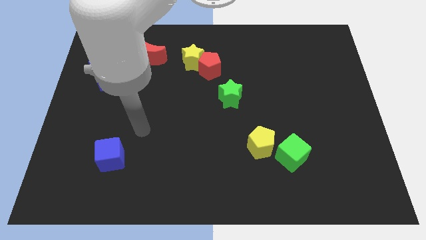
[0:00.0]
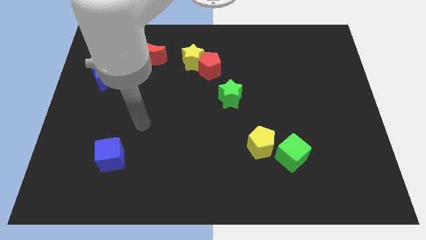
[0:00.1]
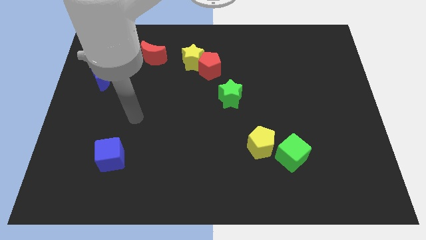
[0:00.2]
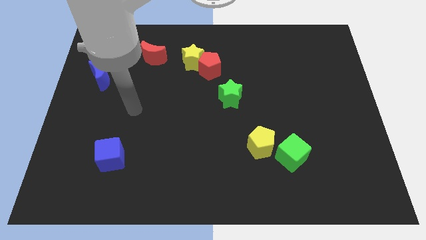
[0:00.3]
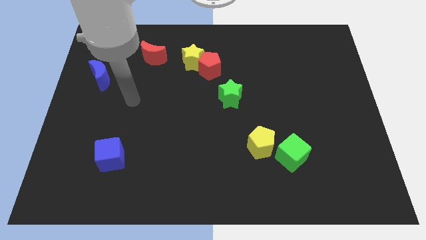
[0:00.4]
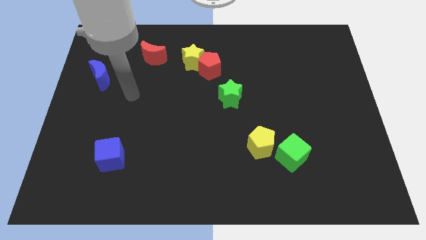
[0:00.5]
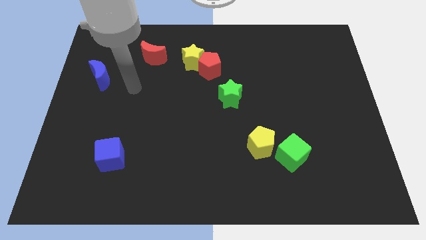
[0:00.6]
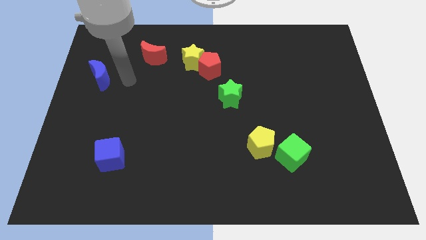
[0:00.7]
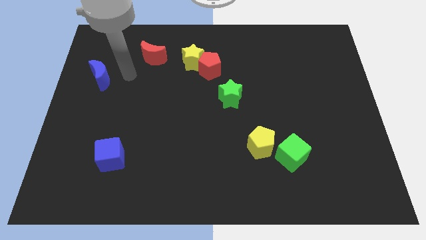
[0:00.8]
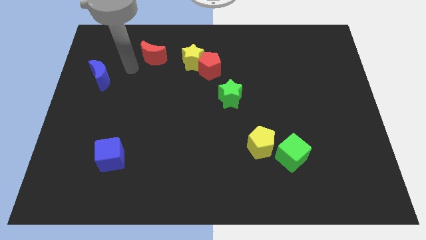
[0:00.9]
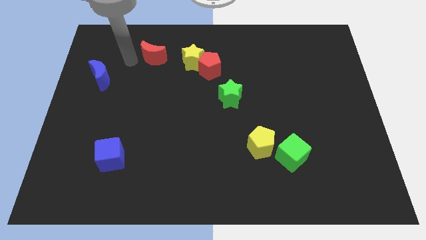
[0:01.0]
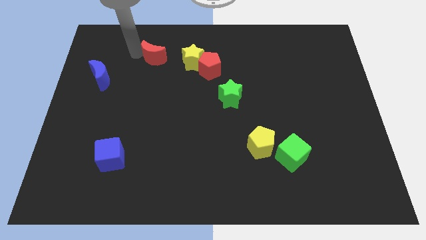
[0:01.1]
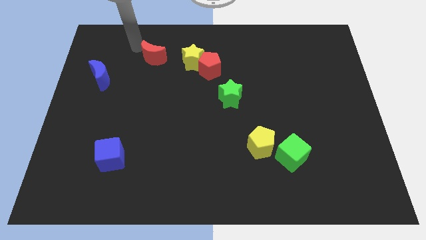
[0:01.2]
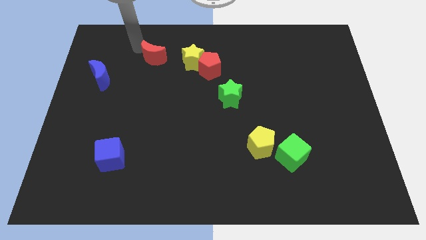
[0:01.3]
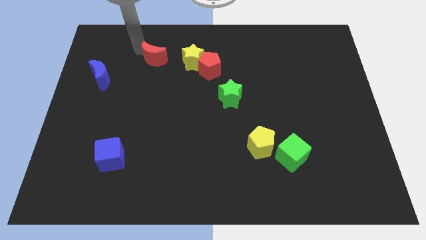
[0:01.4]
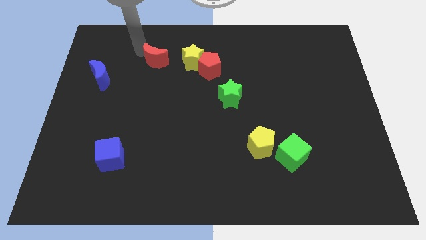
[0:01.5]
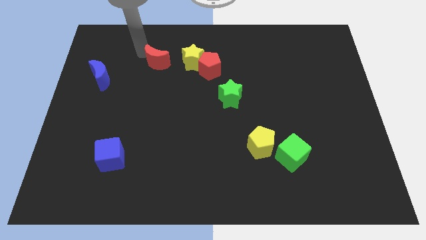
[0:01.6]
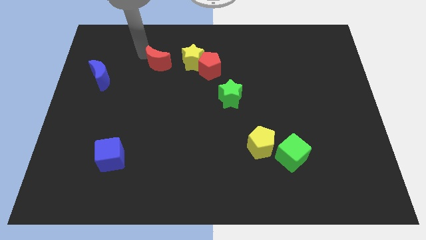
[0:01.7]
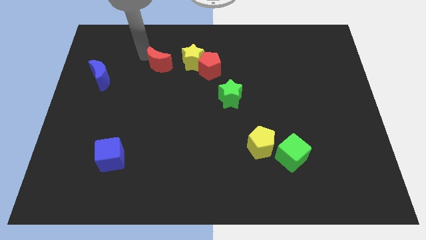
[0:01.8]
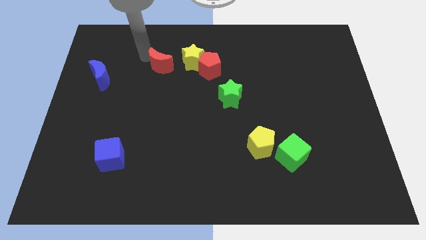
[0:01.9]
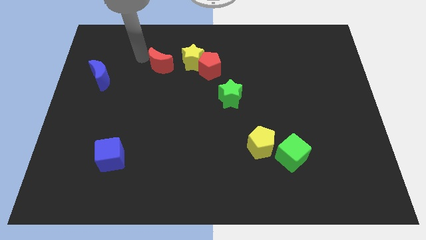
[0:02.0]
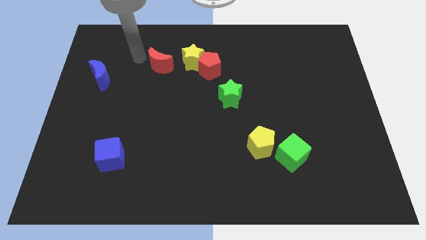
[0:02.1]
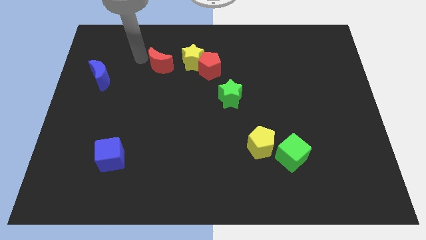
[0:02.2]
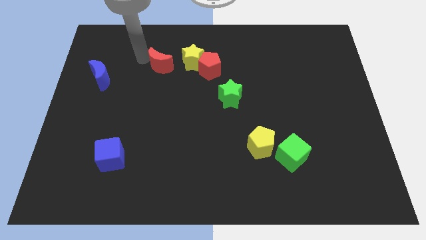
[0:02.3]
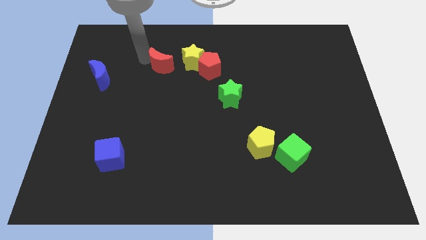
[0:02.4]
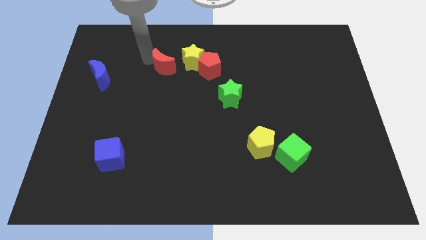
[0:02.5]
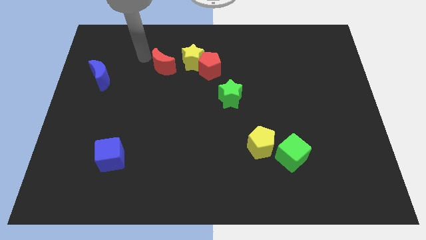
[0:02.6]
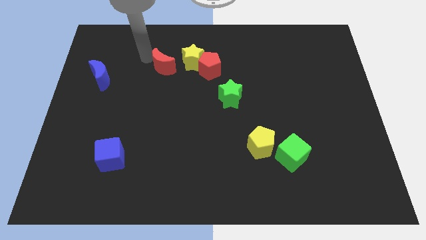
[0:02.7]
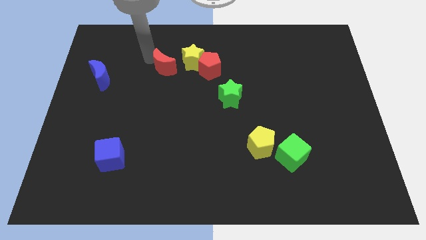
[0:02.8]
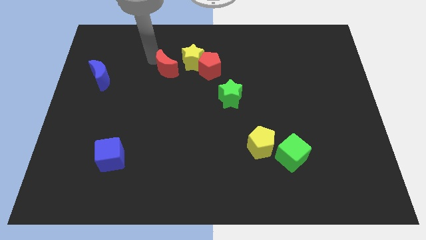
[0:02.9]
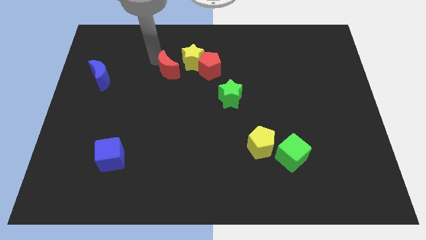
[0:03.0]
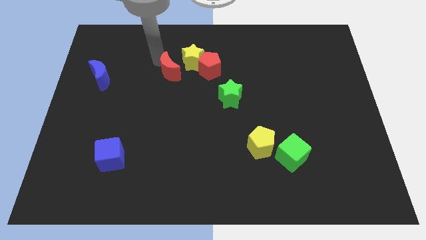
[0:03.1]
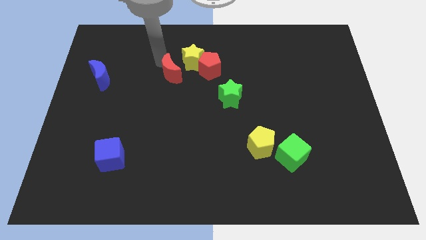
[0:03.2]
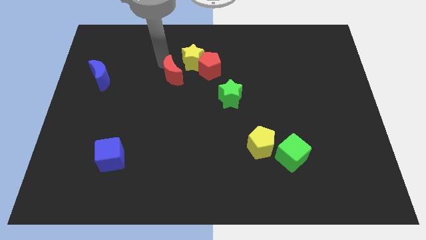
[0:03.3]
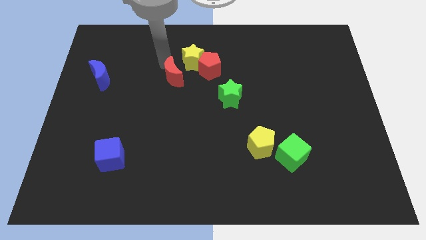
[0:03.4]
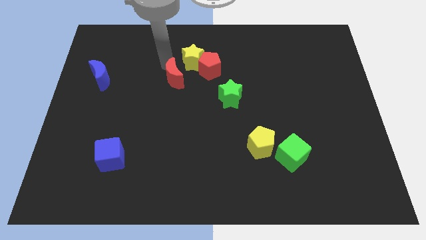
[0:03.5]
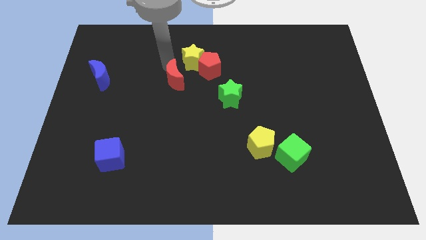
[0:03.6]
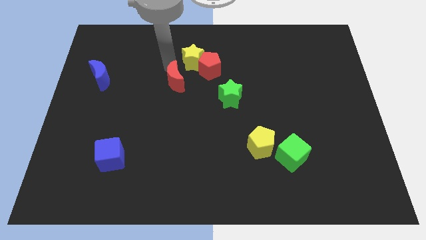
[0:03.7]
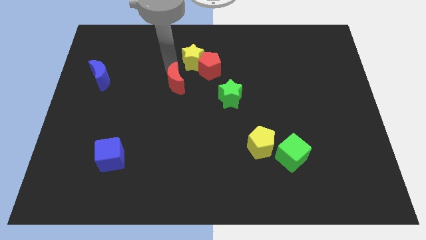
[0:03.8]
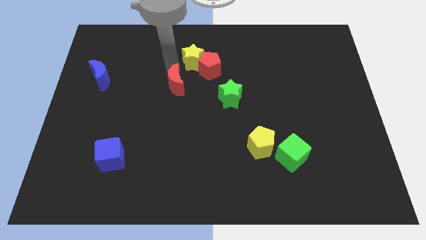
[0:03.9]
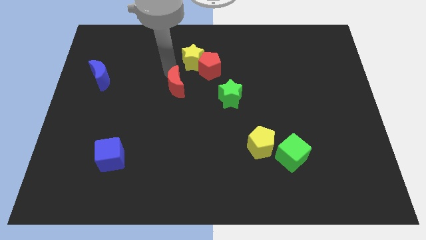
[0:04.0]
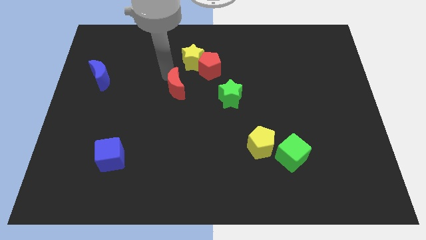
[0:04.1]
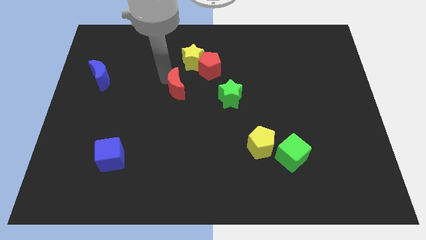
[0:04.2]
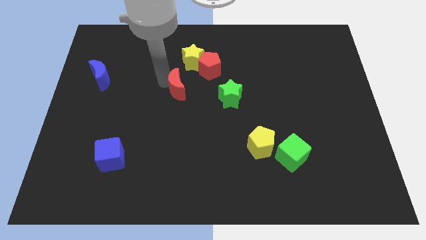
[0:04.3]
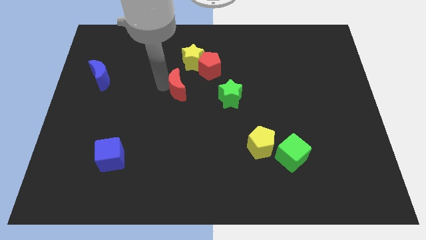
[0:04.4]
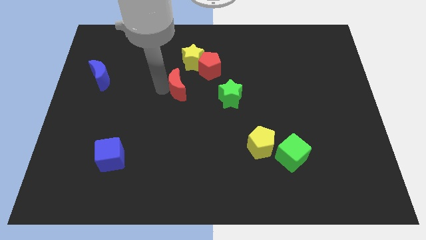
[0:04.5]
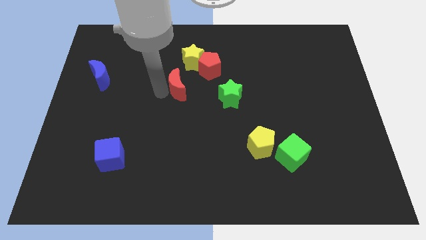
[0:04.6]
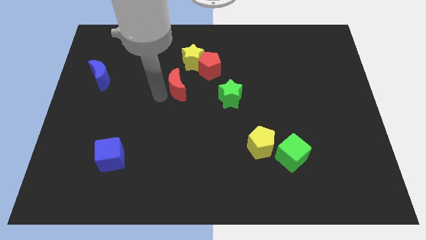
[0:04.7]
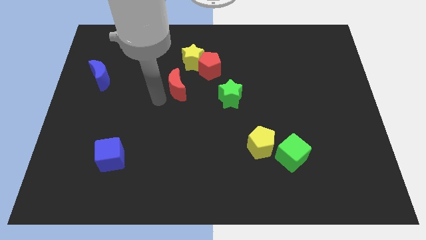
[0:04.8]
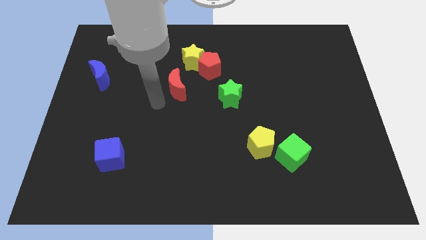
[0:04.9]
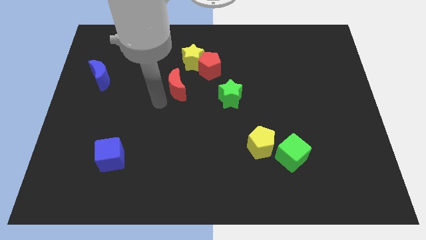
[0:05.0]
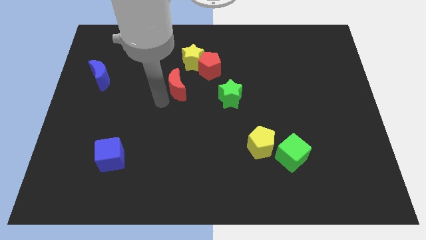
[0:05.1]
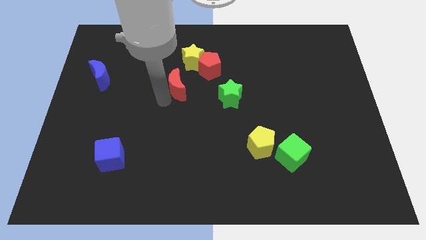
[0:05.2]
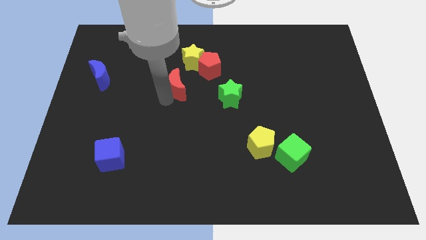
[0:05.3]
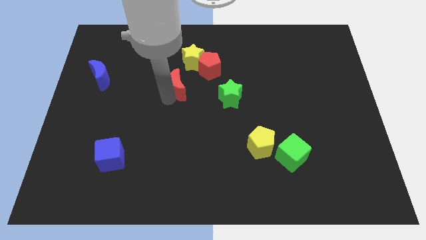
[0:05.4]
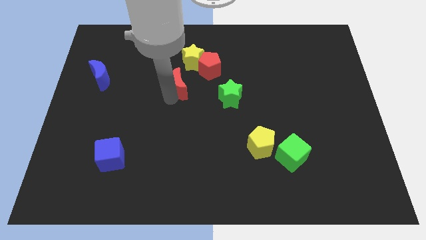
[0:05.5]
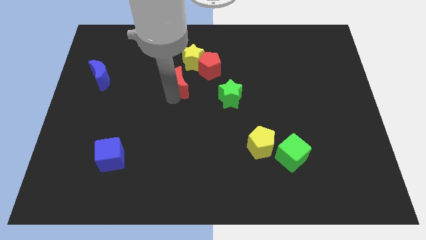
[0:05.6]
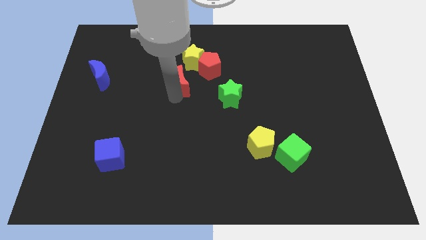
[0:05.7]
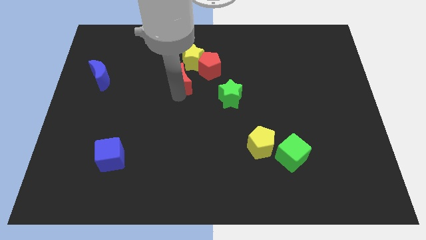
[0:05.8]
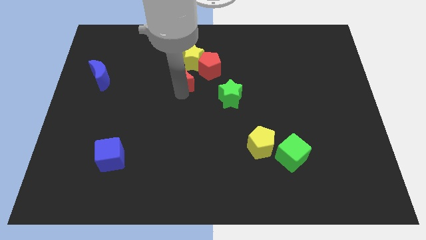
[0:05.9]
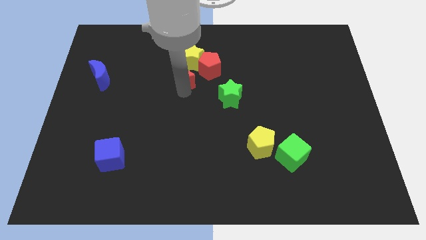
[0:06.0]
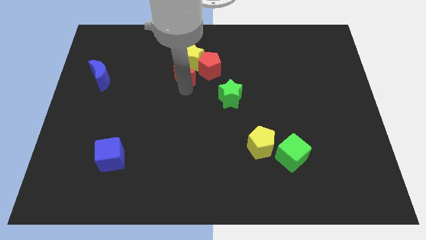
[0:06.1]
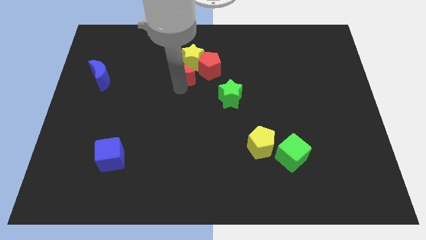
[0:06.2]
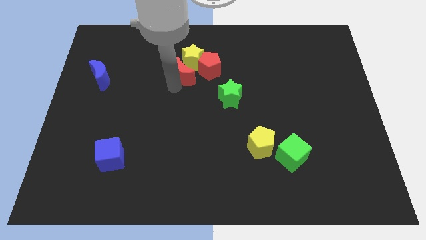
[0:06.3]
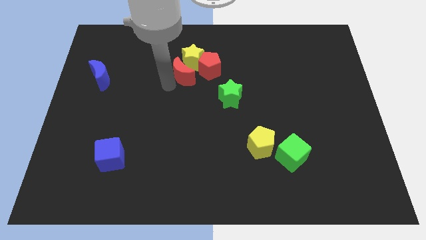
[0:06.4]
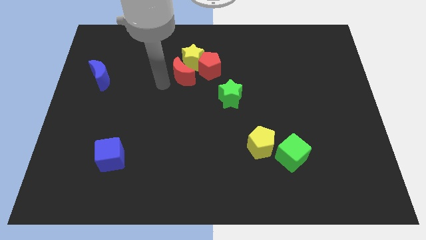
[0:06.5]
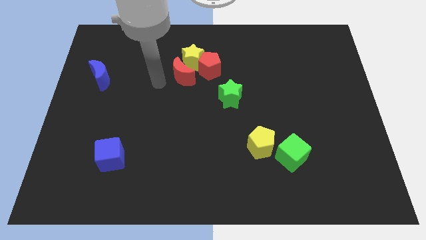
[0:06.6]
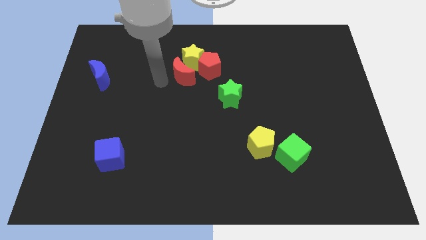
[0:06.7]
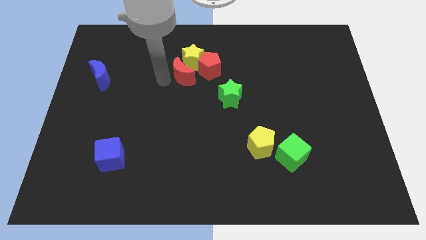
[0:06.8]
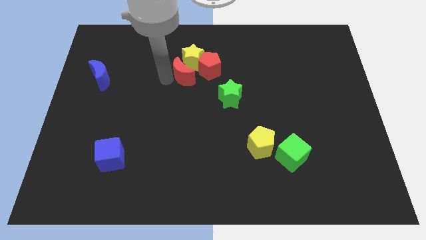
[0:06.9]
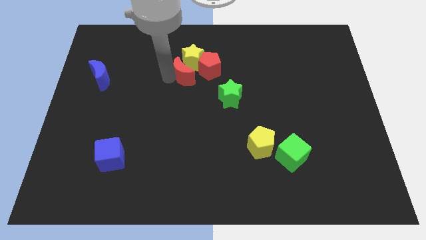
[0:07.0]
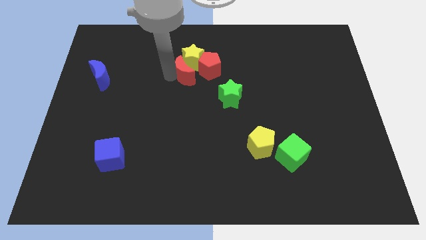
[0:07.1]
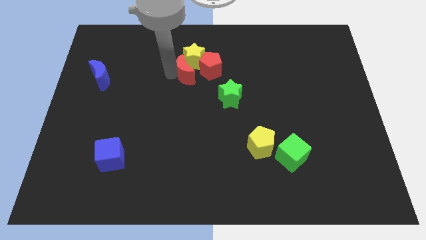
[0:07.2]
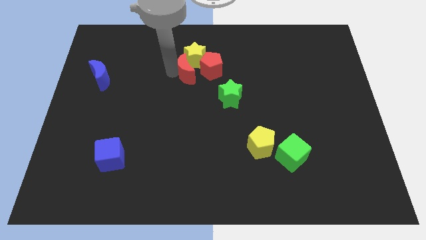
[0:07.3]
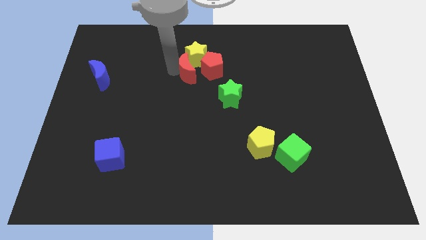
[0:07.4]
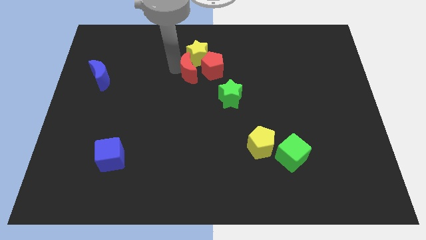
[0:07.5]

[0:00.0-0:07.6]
push the red moon close to the red pentagon

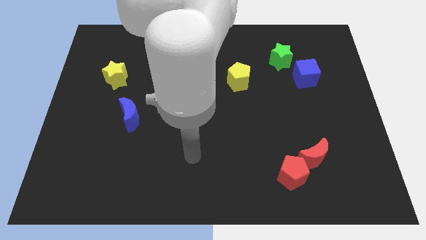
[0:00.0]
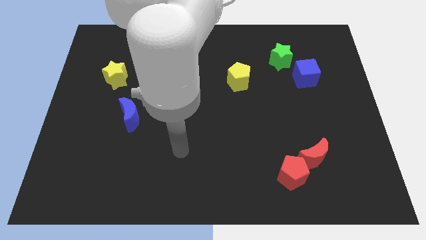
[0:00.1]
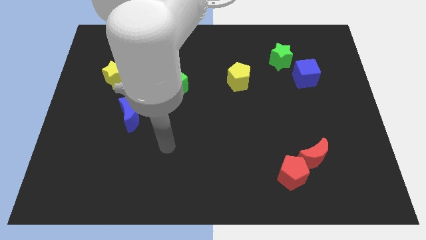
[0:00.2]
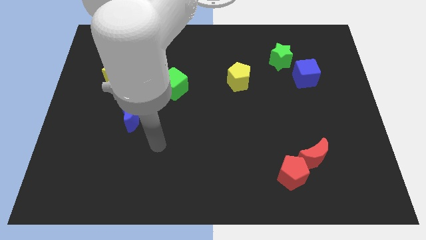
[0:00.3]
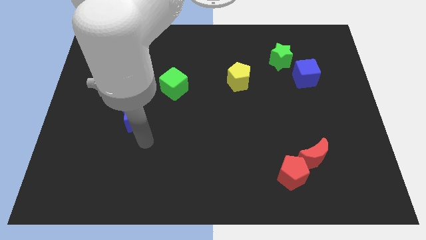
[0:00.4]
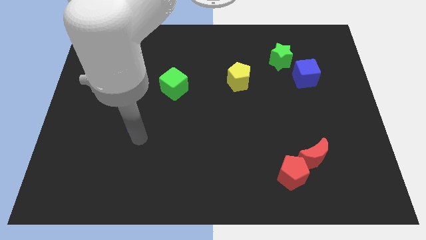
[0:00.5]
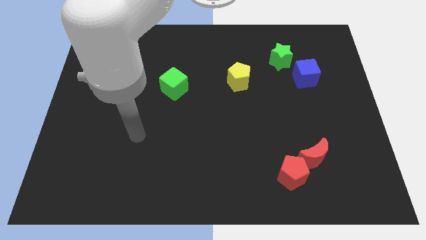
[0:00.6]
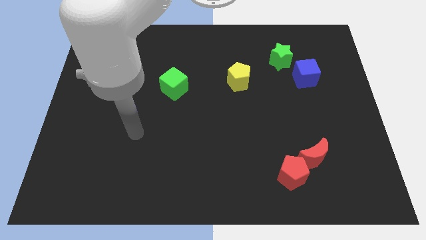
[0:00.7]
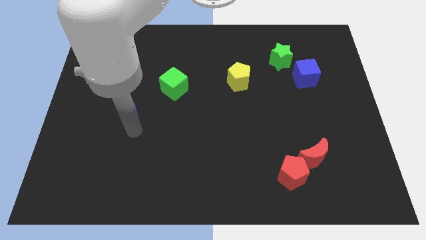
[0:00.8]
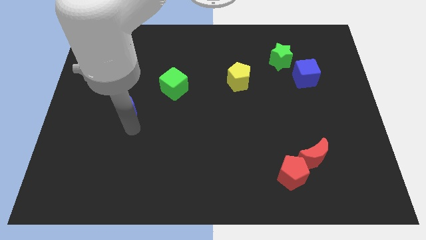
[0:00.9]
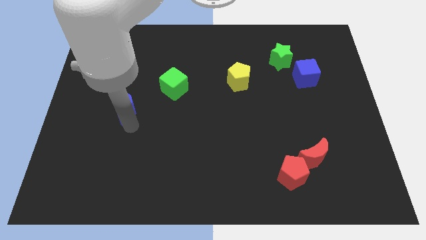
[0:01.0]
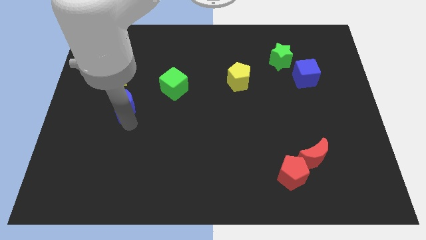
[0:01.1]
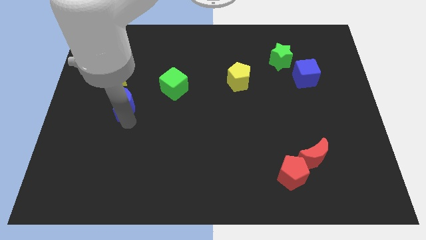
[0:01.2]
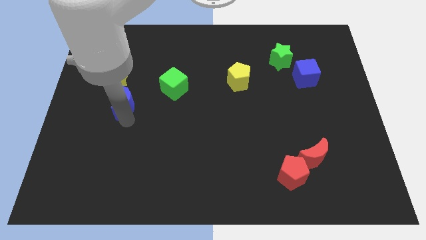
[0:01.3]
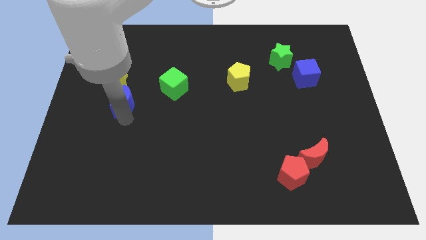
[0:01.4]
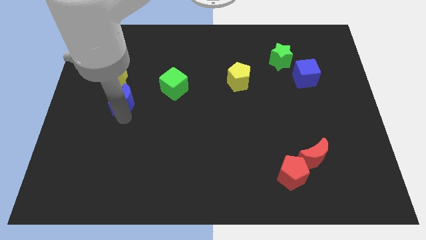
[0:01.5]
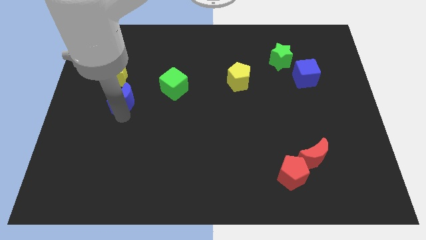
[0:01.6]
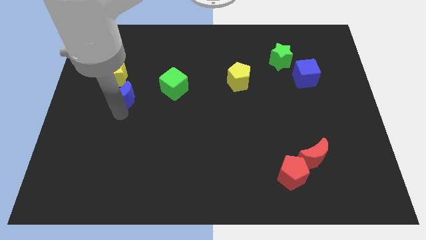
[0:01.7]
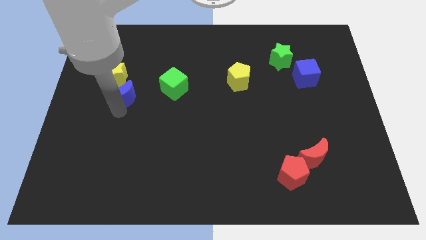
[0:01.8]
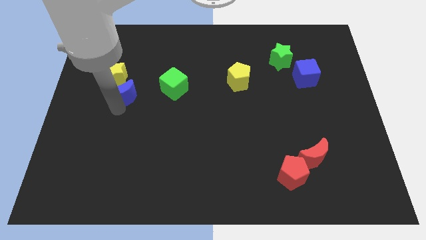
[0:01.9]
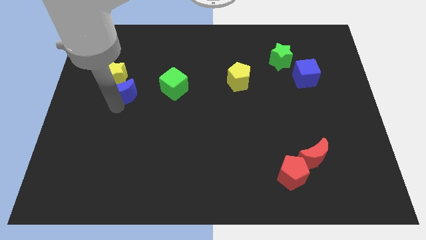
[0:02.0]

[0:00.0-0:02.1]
move the blue moon towards the yellow star
